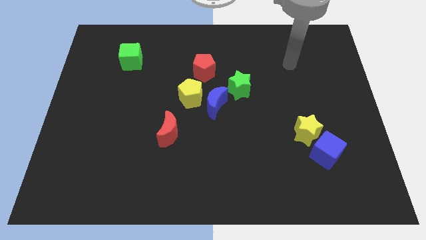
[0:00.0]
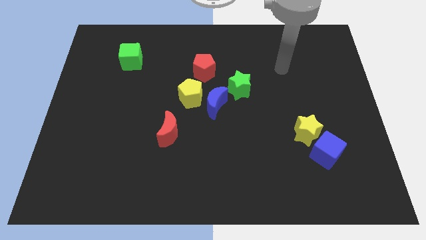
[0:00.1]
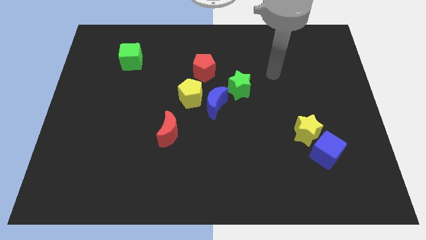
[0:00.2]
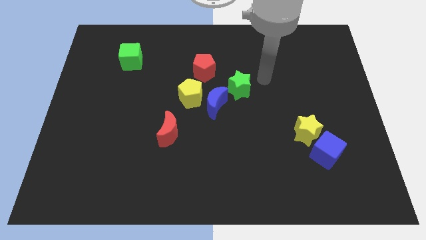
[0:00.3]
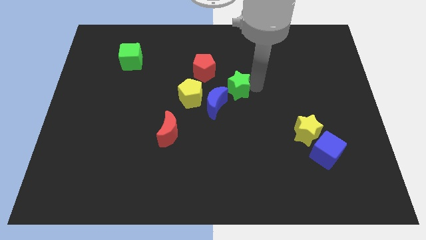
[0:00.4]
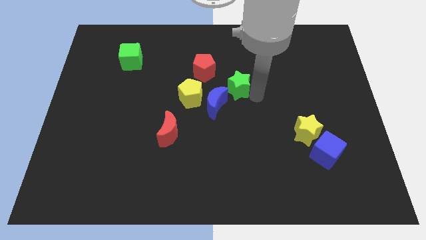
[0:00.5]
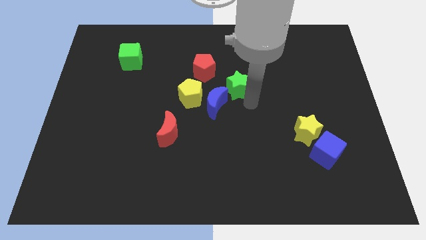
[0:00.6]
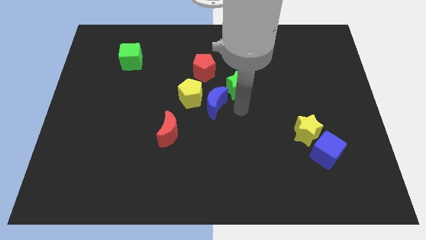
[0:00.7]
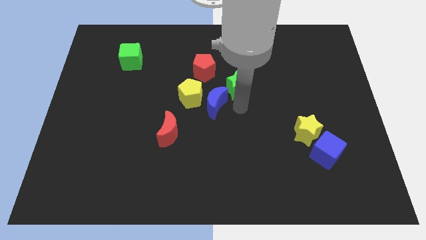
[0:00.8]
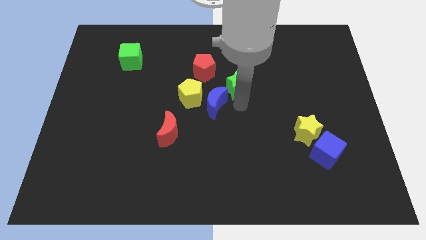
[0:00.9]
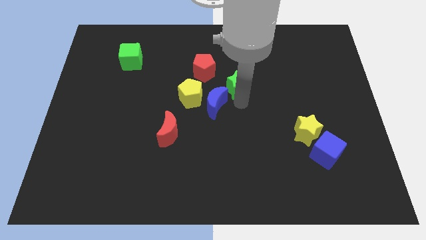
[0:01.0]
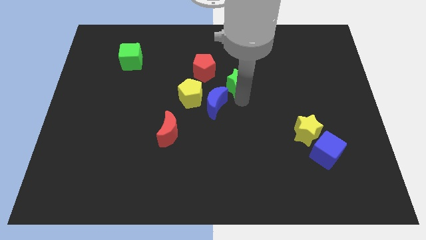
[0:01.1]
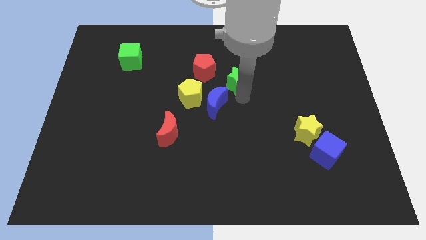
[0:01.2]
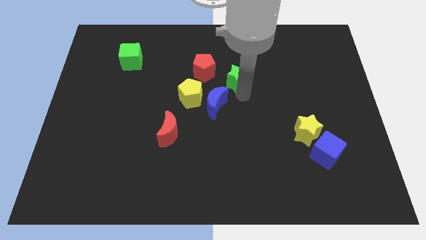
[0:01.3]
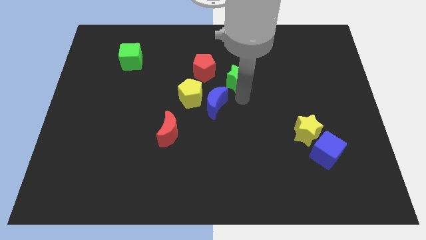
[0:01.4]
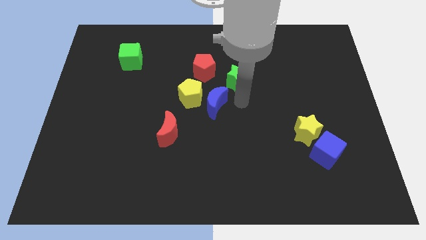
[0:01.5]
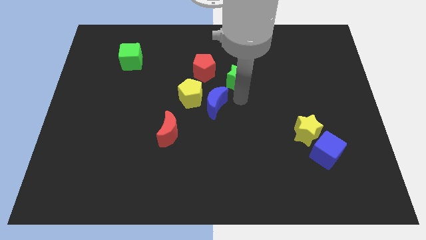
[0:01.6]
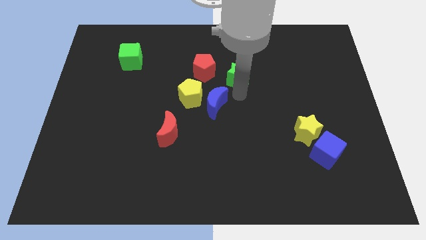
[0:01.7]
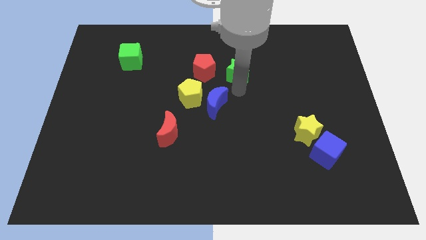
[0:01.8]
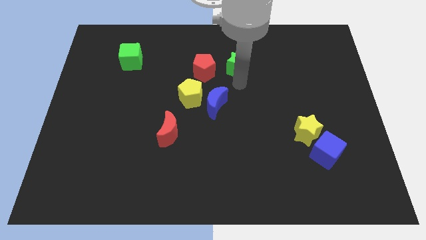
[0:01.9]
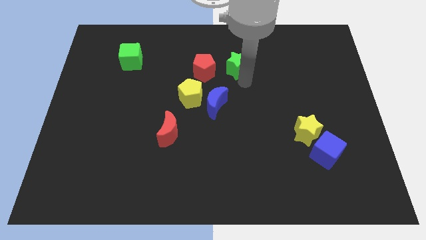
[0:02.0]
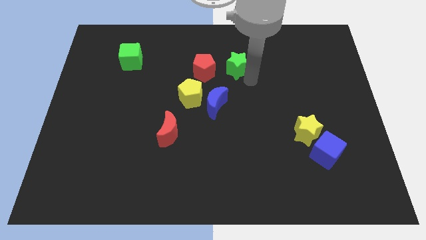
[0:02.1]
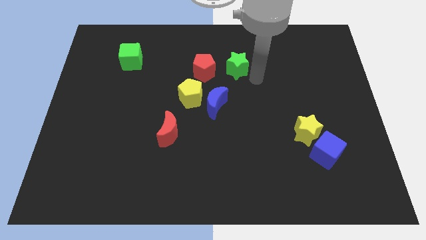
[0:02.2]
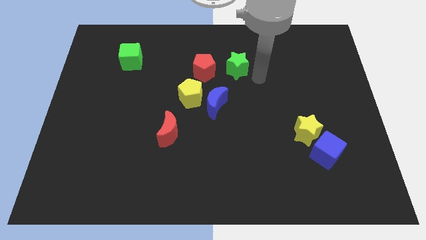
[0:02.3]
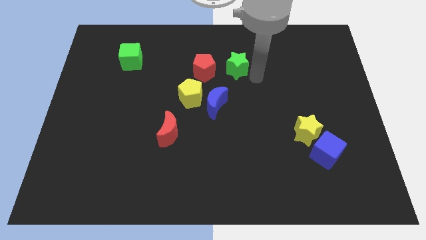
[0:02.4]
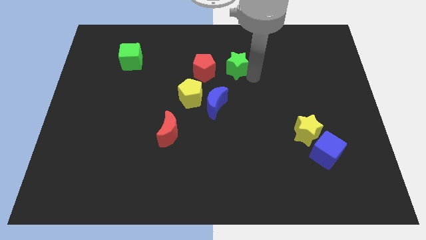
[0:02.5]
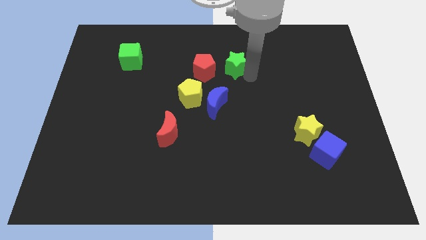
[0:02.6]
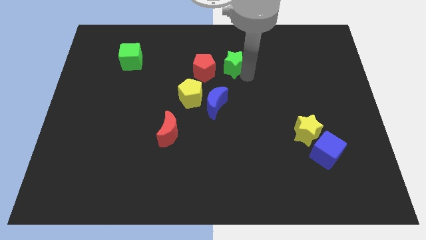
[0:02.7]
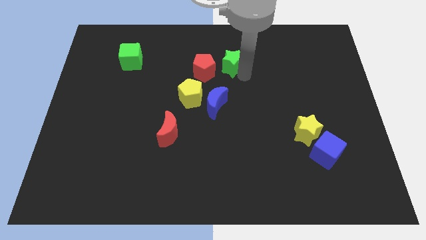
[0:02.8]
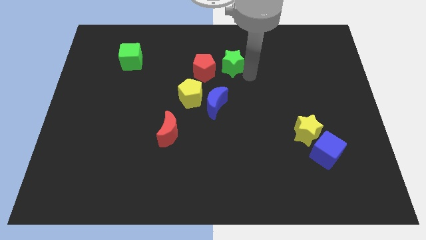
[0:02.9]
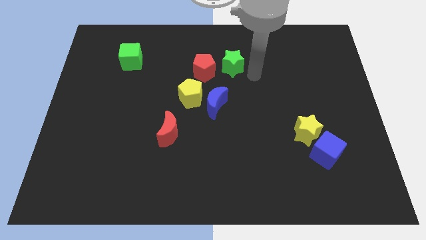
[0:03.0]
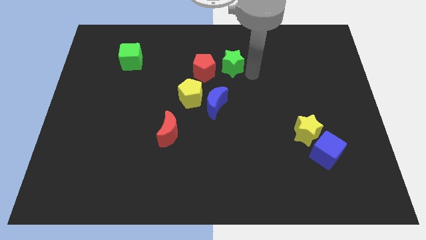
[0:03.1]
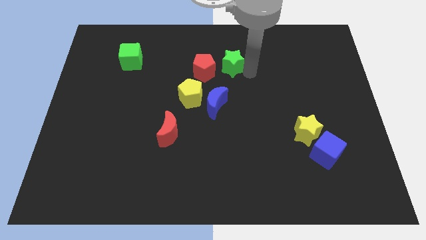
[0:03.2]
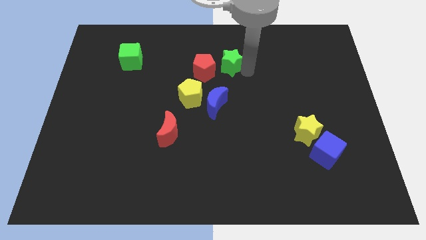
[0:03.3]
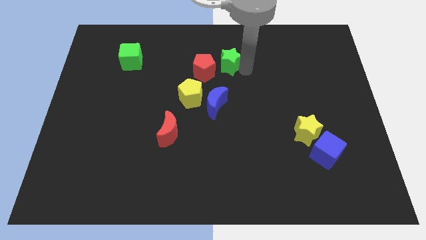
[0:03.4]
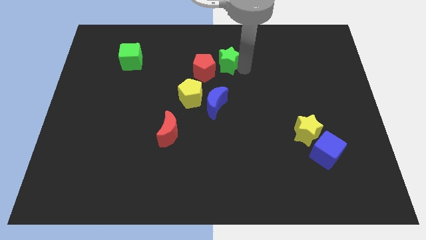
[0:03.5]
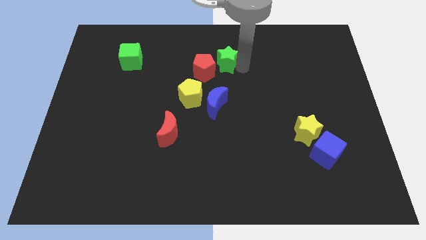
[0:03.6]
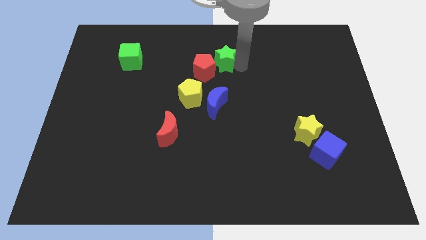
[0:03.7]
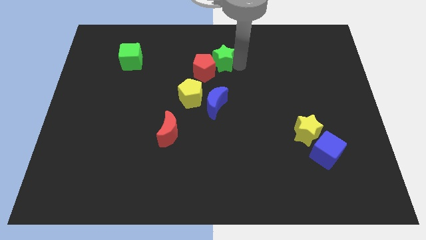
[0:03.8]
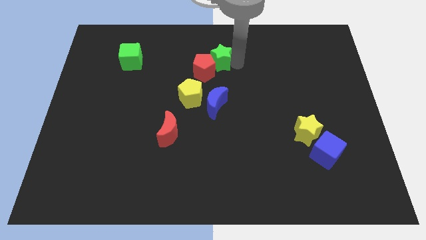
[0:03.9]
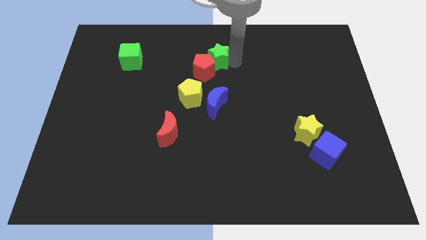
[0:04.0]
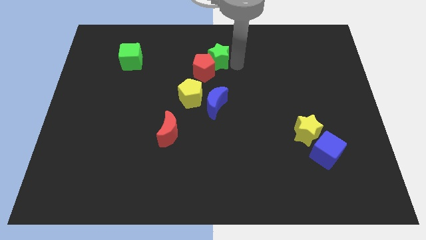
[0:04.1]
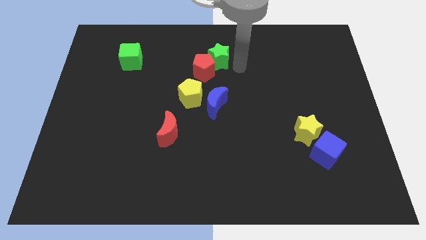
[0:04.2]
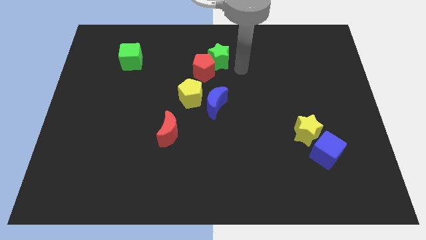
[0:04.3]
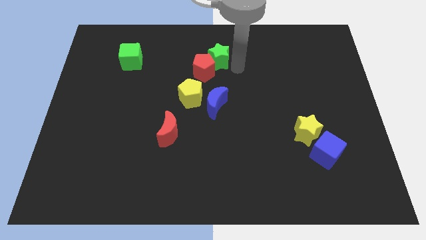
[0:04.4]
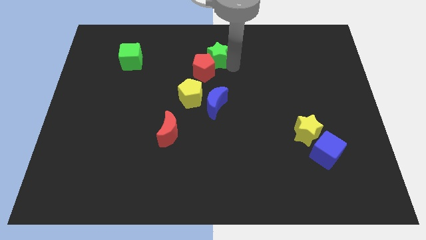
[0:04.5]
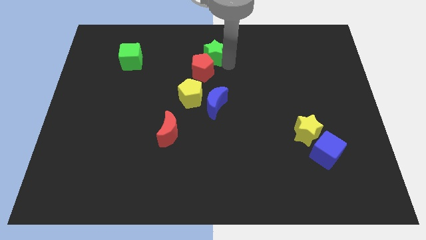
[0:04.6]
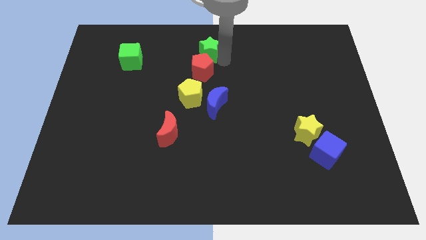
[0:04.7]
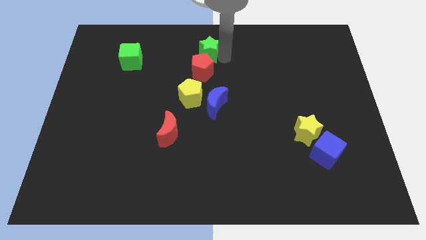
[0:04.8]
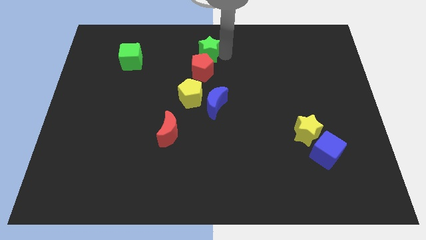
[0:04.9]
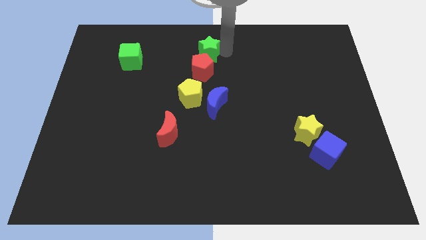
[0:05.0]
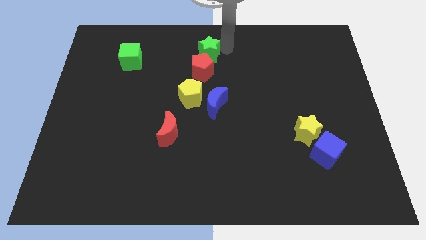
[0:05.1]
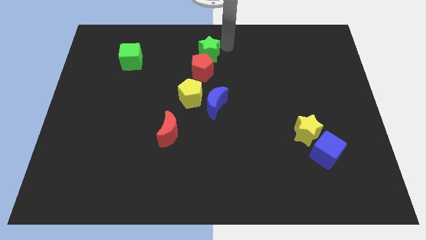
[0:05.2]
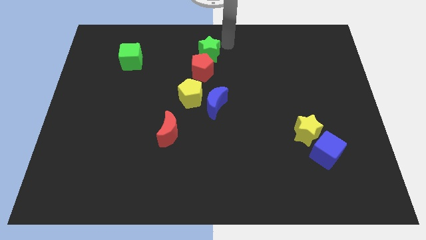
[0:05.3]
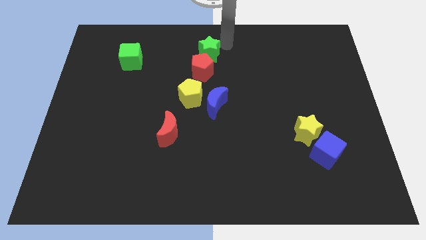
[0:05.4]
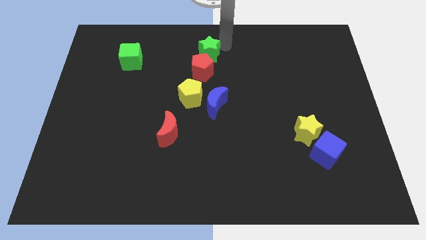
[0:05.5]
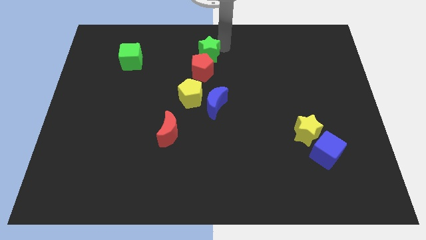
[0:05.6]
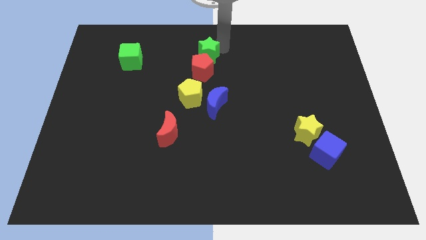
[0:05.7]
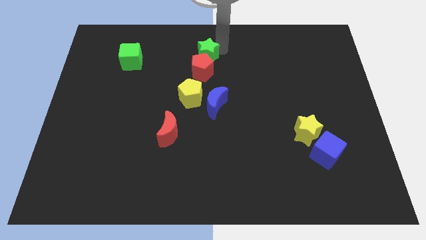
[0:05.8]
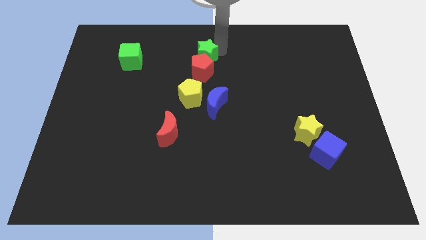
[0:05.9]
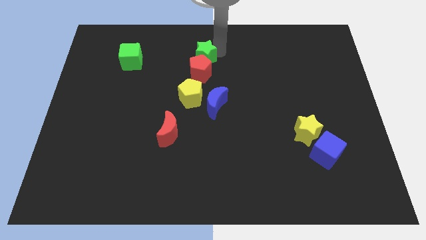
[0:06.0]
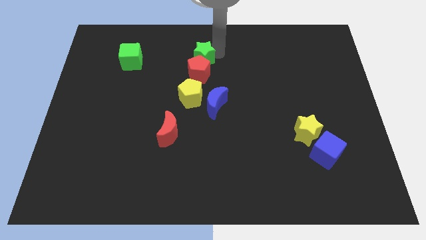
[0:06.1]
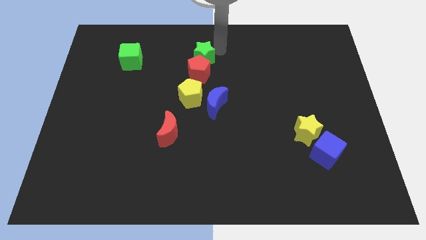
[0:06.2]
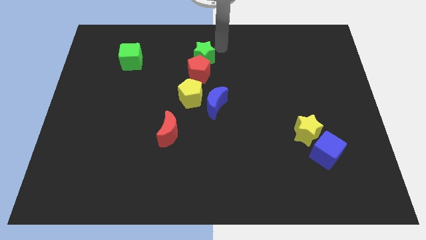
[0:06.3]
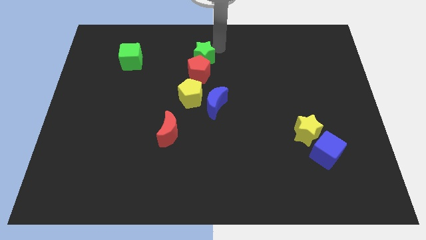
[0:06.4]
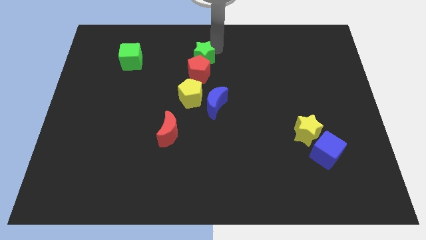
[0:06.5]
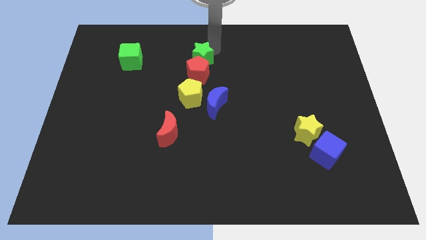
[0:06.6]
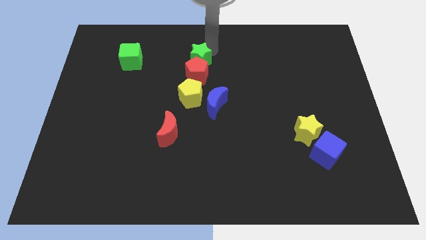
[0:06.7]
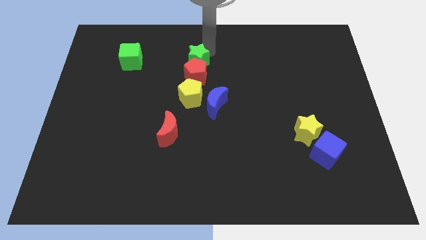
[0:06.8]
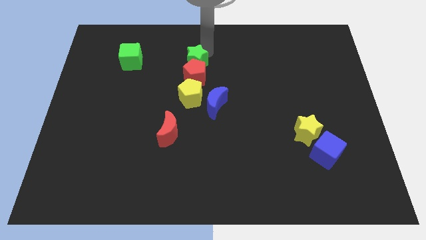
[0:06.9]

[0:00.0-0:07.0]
push the green star a little bit to the left

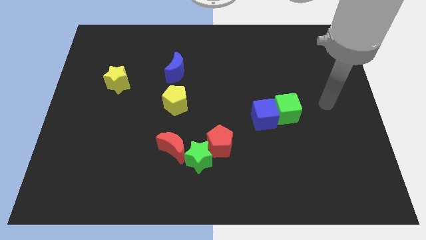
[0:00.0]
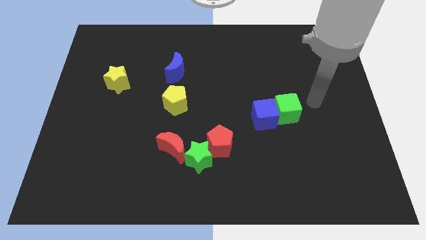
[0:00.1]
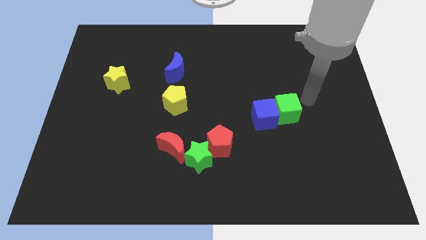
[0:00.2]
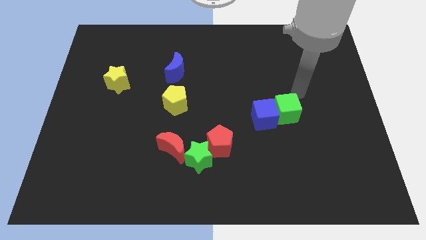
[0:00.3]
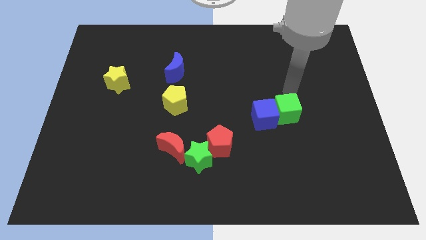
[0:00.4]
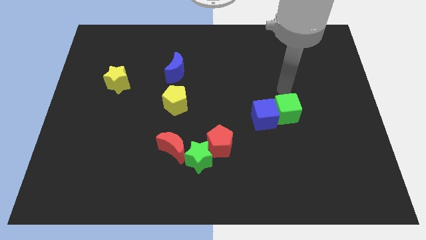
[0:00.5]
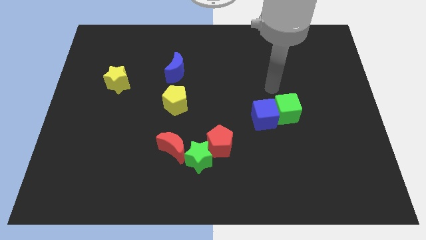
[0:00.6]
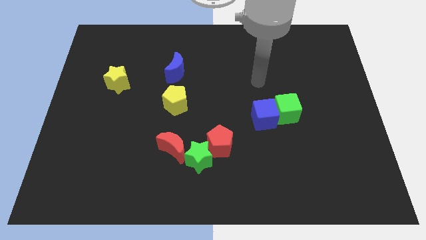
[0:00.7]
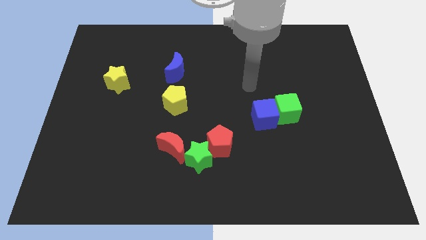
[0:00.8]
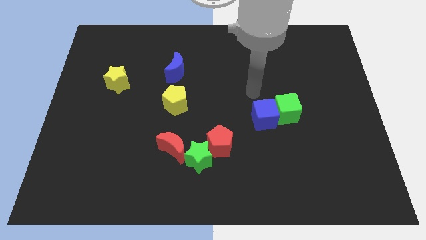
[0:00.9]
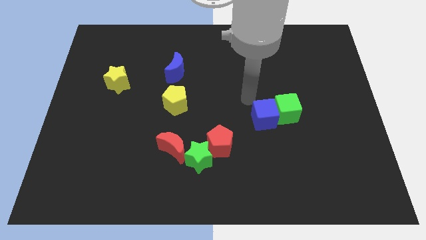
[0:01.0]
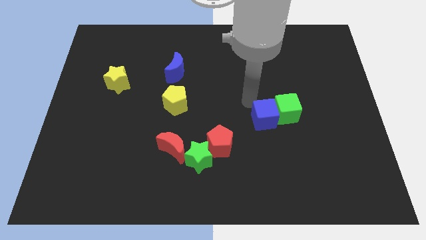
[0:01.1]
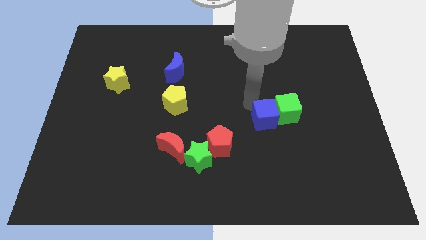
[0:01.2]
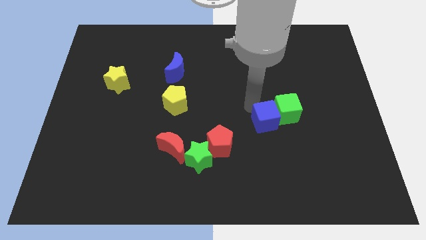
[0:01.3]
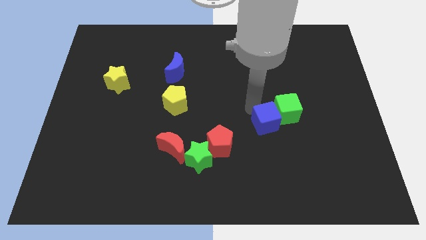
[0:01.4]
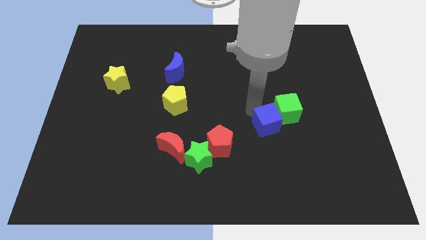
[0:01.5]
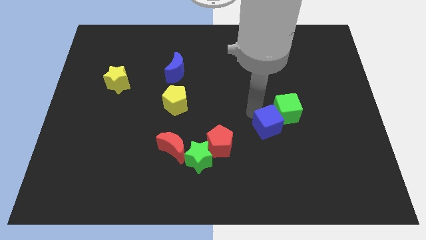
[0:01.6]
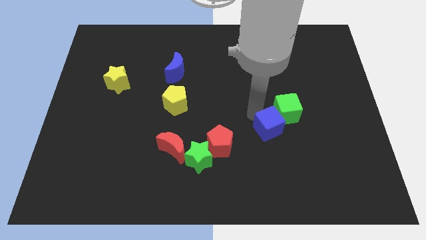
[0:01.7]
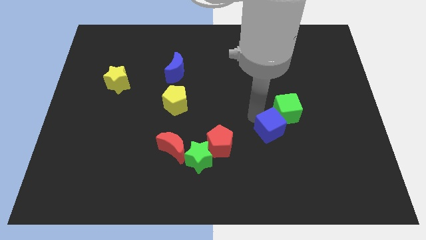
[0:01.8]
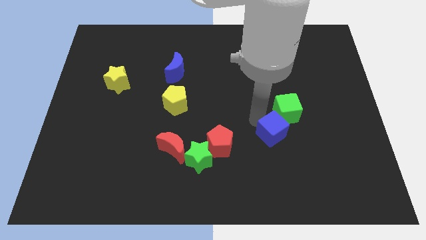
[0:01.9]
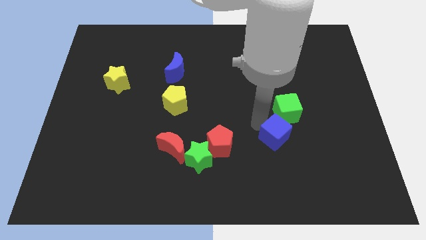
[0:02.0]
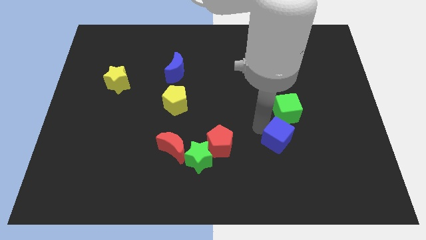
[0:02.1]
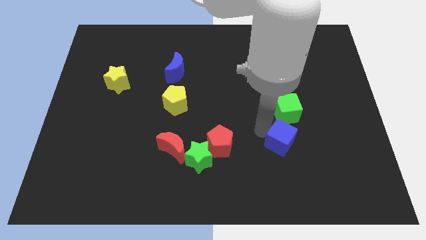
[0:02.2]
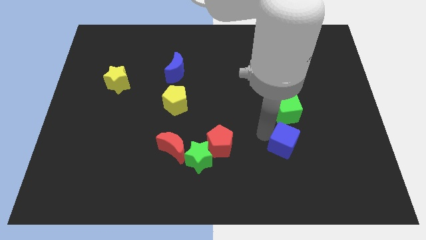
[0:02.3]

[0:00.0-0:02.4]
move the blue cube slightly down and then to the right
